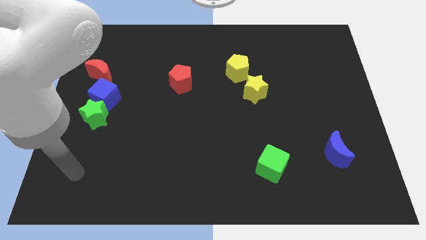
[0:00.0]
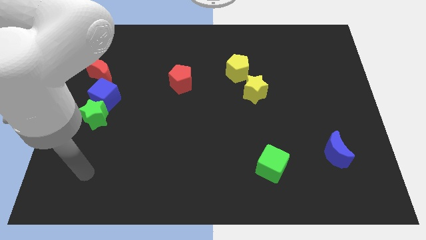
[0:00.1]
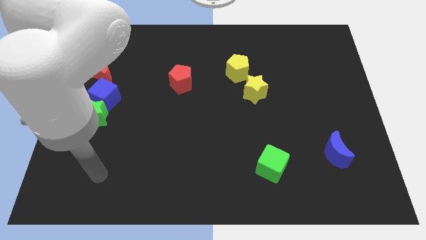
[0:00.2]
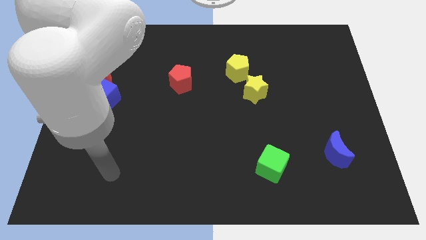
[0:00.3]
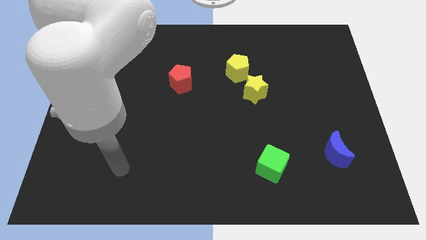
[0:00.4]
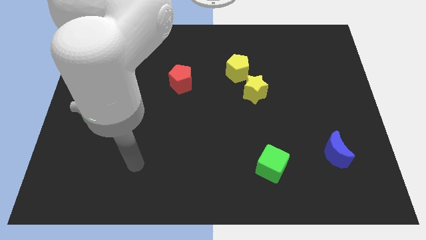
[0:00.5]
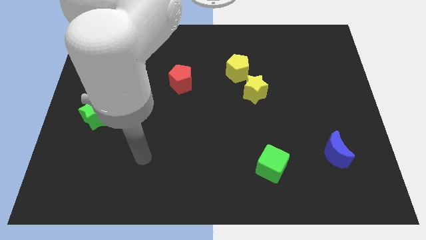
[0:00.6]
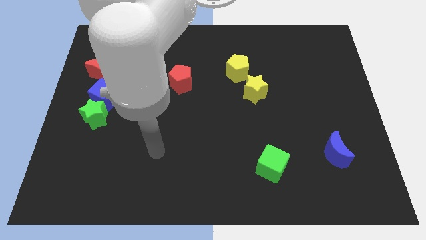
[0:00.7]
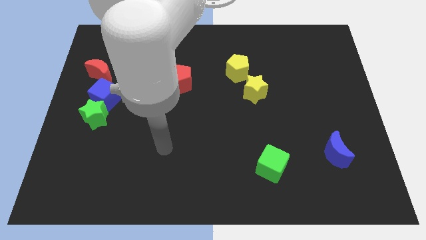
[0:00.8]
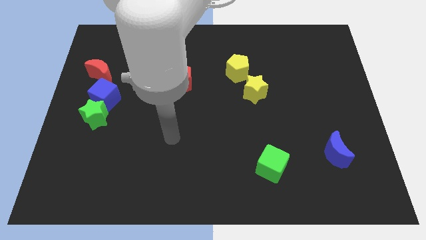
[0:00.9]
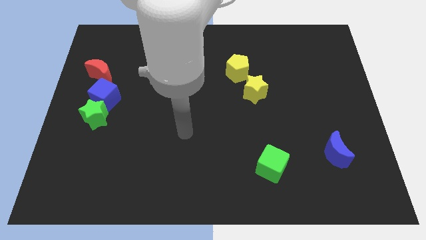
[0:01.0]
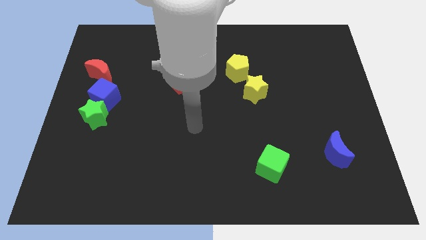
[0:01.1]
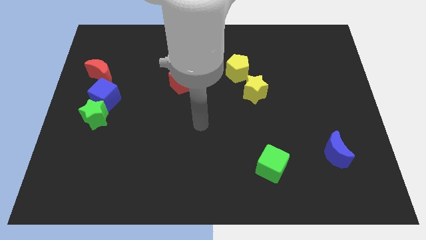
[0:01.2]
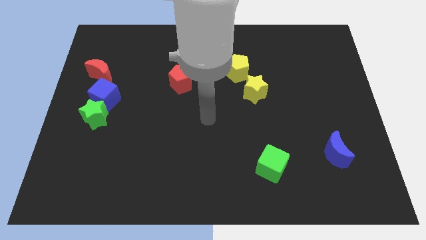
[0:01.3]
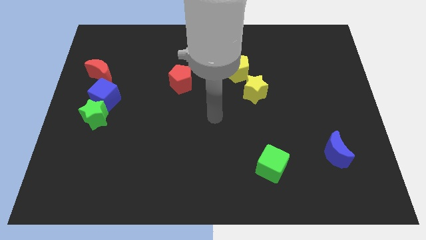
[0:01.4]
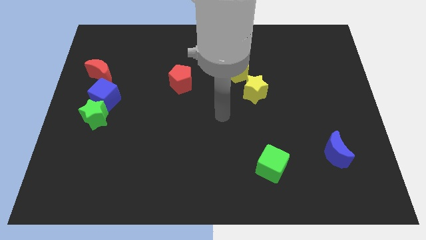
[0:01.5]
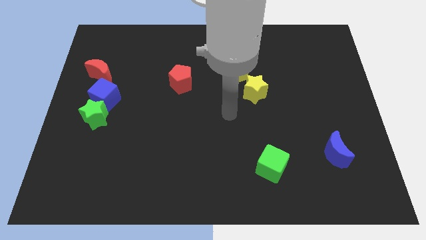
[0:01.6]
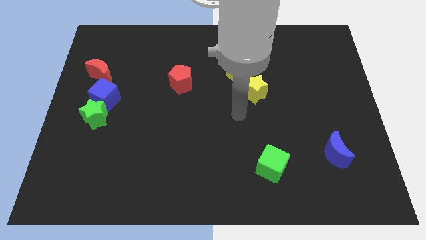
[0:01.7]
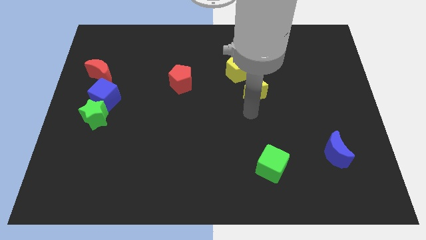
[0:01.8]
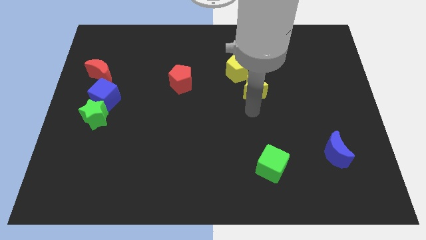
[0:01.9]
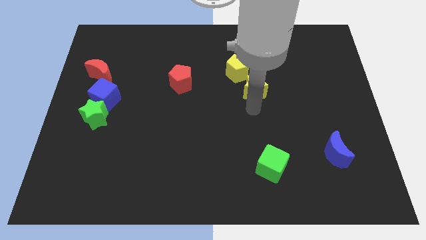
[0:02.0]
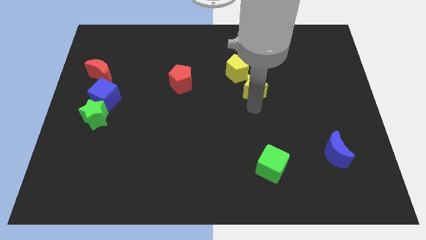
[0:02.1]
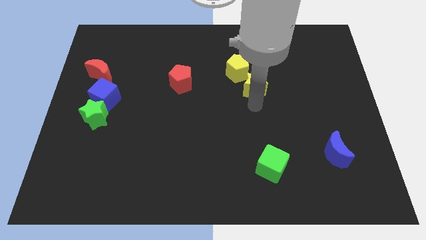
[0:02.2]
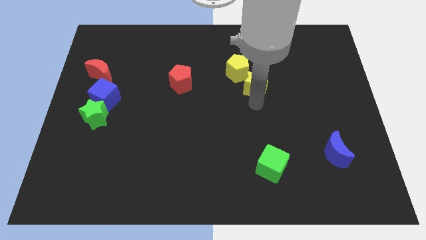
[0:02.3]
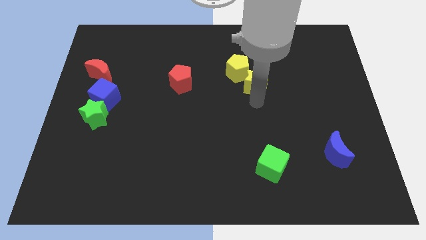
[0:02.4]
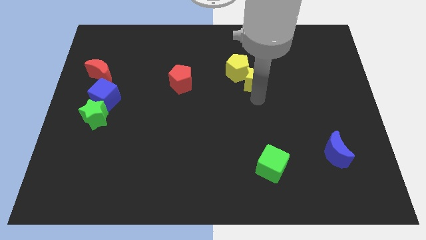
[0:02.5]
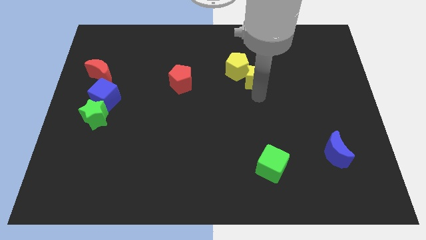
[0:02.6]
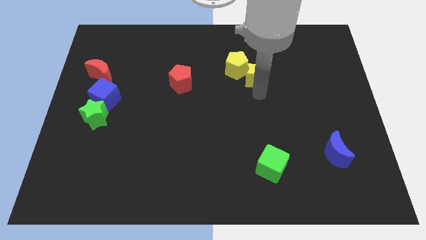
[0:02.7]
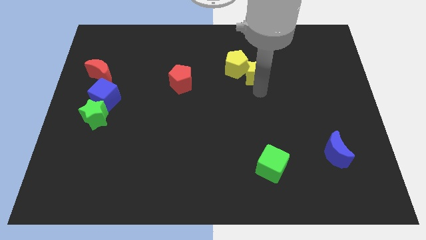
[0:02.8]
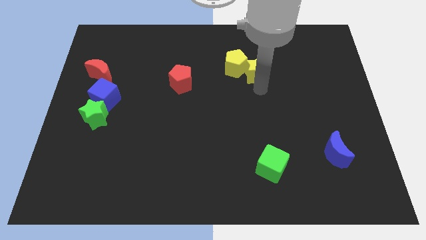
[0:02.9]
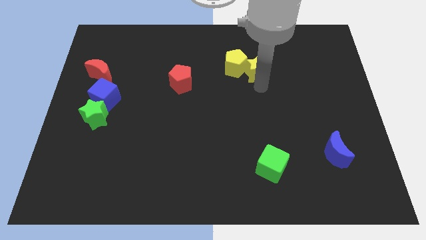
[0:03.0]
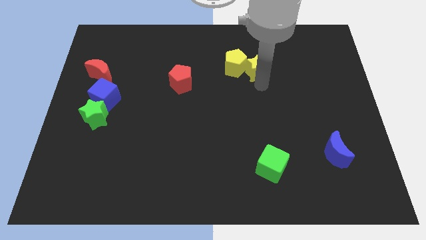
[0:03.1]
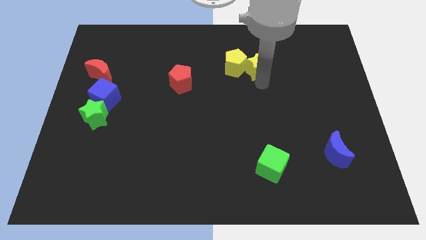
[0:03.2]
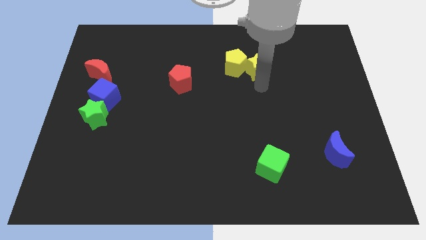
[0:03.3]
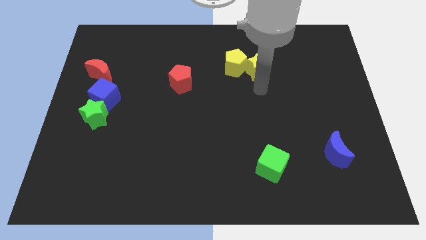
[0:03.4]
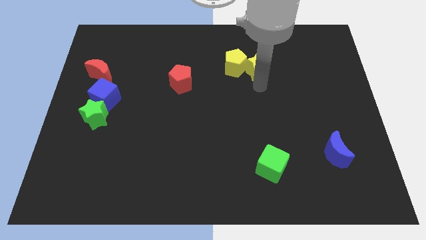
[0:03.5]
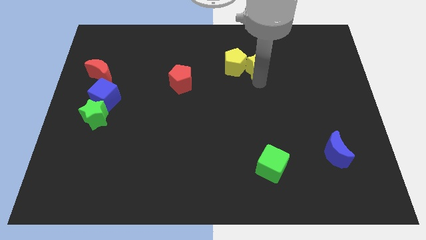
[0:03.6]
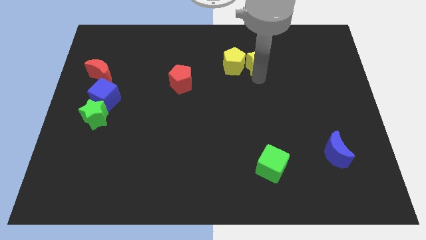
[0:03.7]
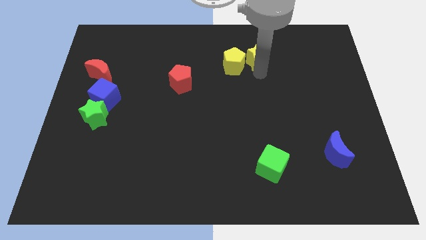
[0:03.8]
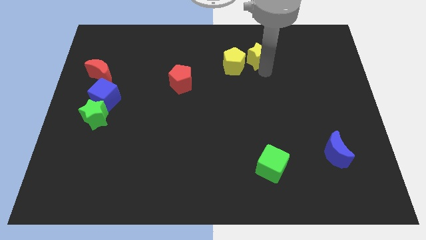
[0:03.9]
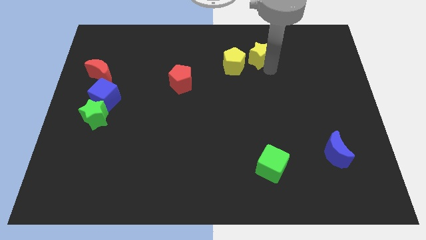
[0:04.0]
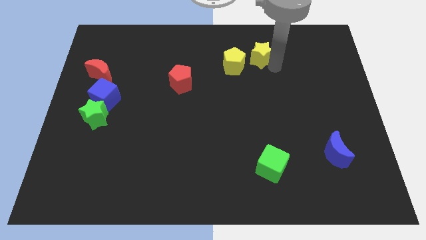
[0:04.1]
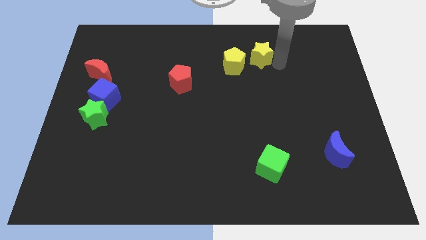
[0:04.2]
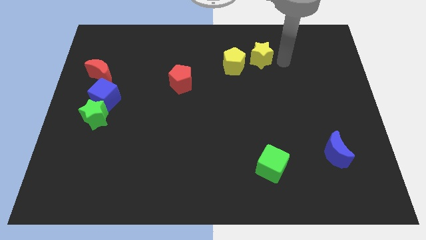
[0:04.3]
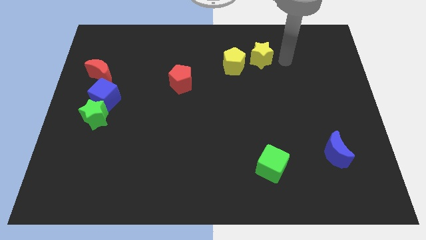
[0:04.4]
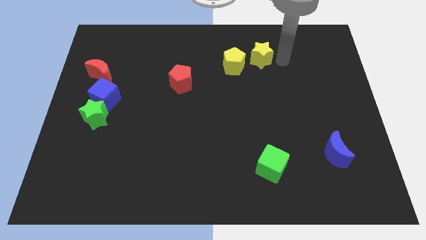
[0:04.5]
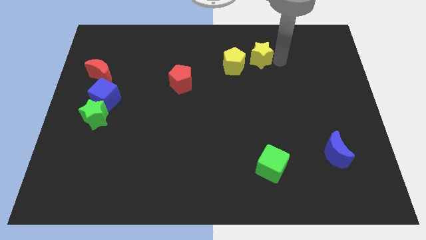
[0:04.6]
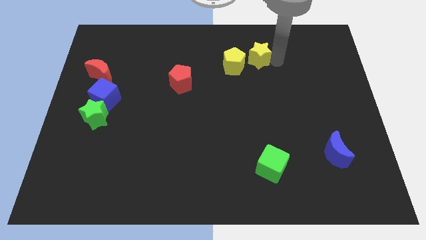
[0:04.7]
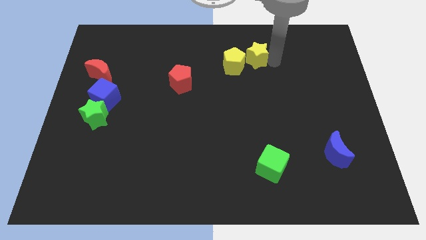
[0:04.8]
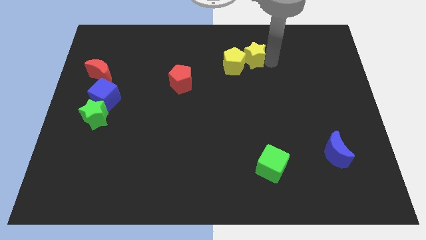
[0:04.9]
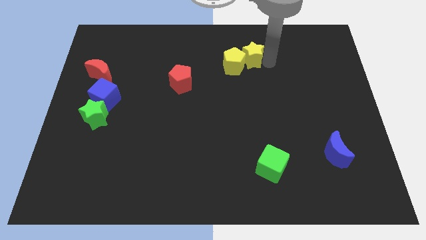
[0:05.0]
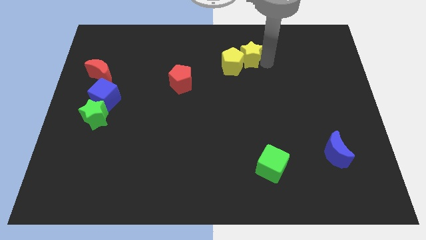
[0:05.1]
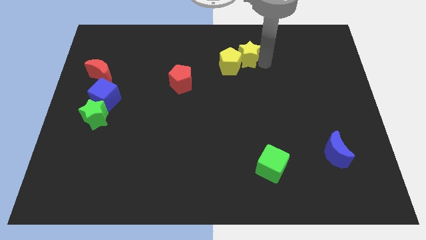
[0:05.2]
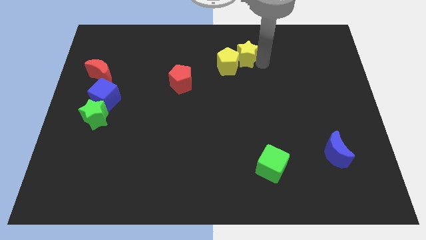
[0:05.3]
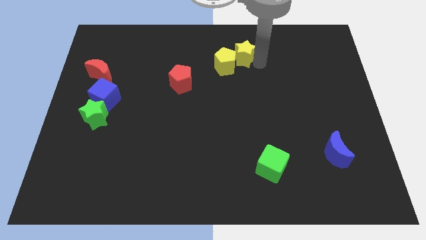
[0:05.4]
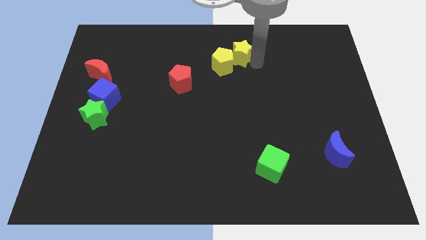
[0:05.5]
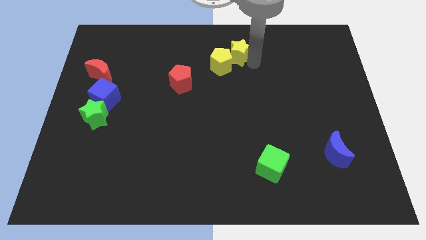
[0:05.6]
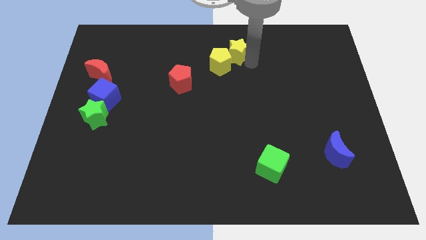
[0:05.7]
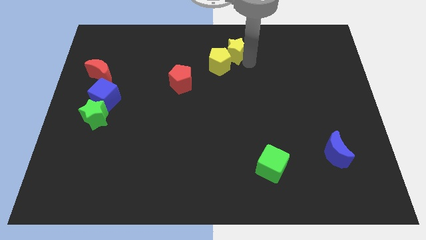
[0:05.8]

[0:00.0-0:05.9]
slide the yellow star to the top side
